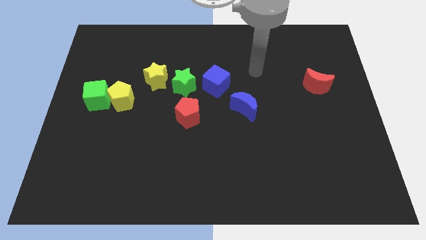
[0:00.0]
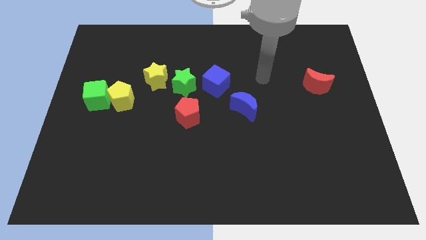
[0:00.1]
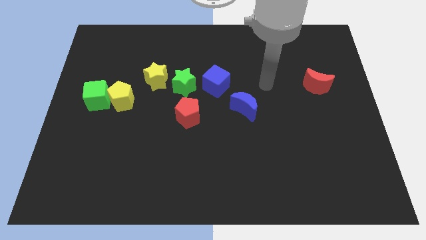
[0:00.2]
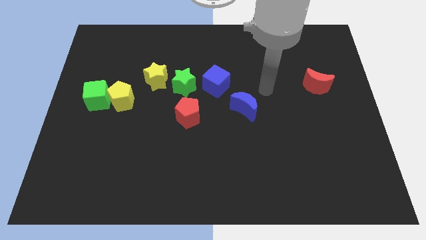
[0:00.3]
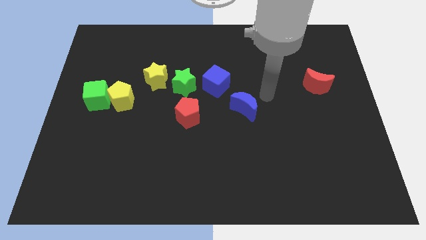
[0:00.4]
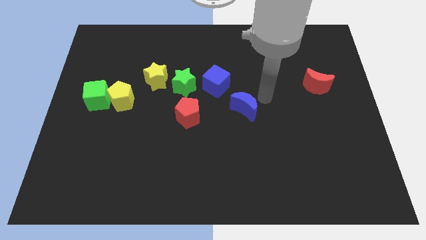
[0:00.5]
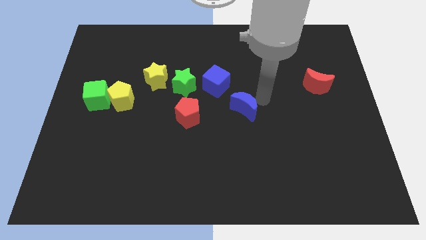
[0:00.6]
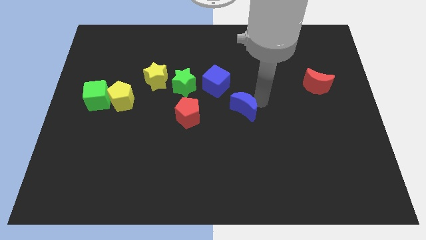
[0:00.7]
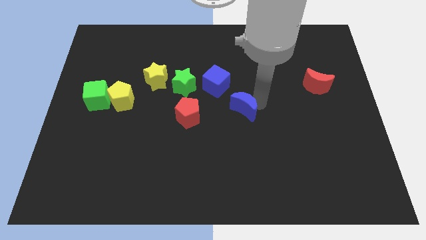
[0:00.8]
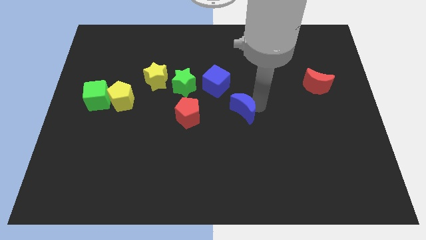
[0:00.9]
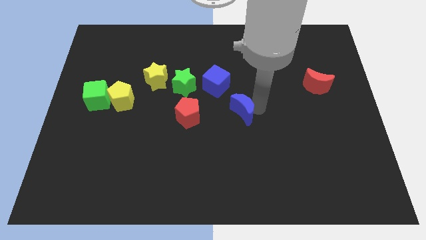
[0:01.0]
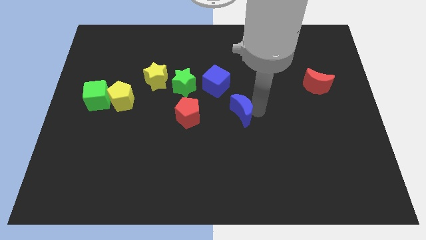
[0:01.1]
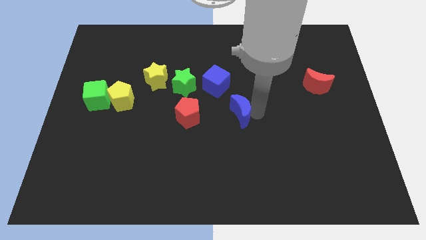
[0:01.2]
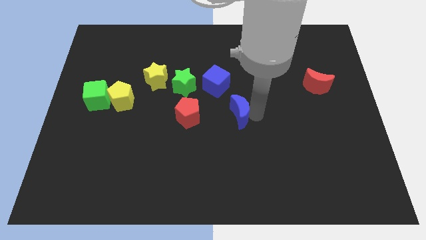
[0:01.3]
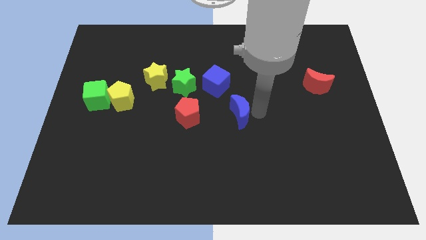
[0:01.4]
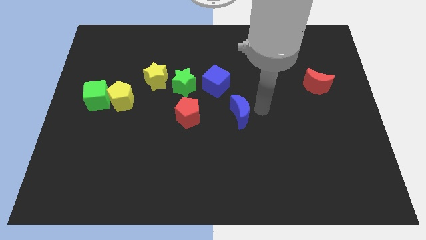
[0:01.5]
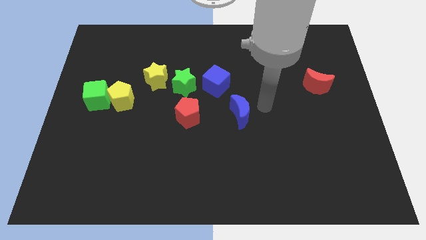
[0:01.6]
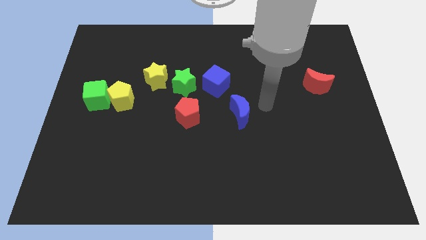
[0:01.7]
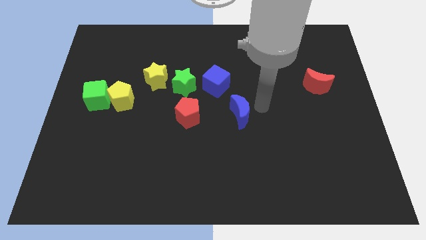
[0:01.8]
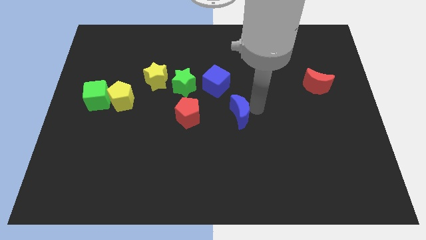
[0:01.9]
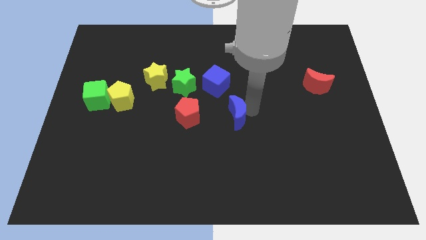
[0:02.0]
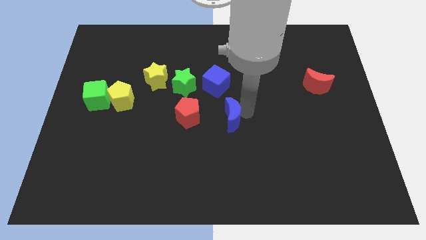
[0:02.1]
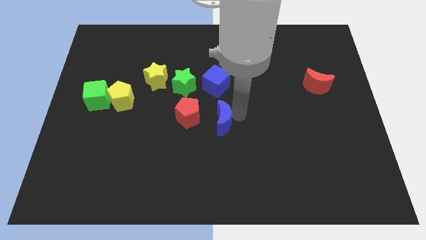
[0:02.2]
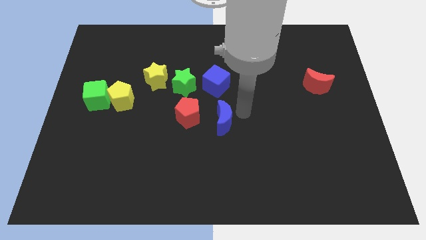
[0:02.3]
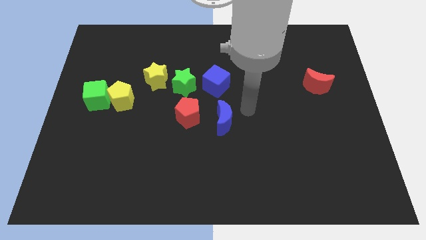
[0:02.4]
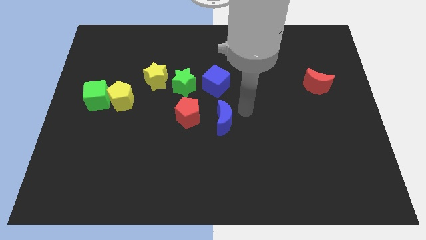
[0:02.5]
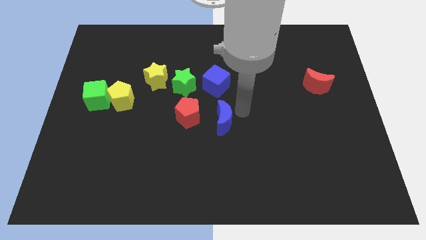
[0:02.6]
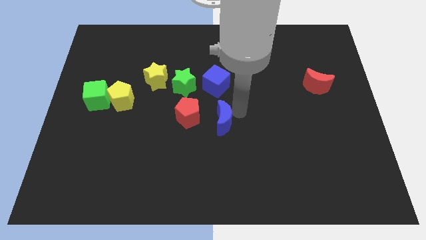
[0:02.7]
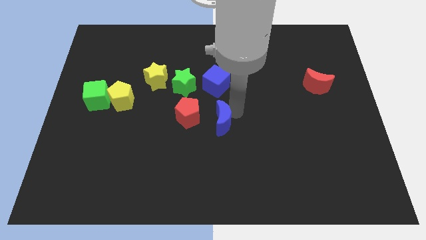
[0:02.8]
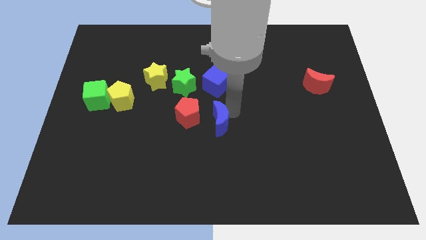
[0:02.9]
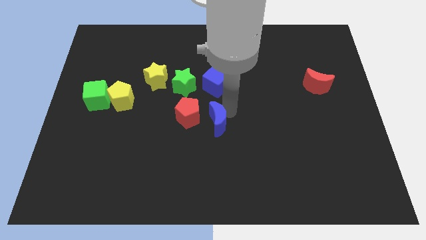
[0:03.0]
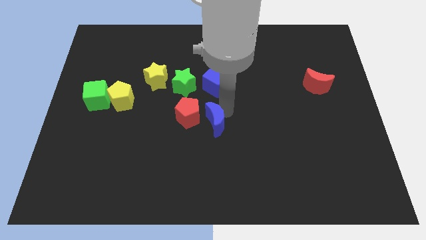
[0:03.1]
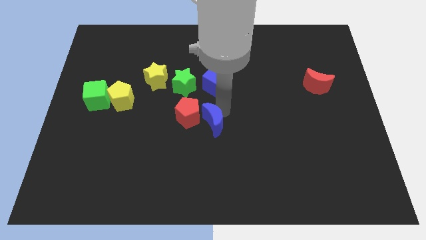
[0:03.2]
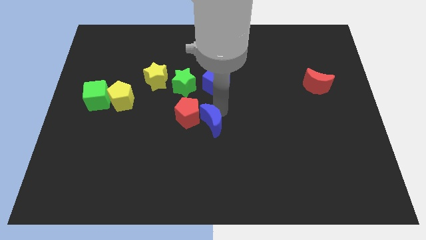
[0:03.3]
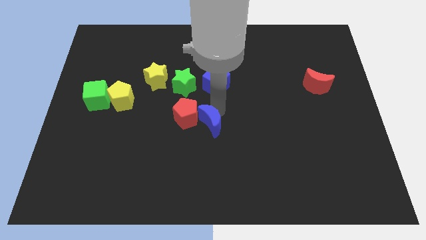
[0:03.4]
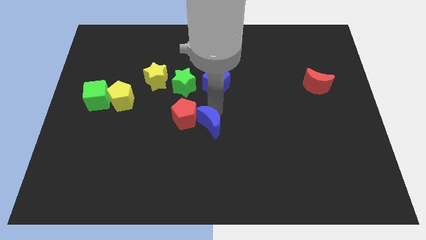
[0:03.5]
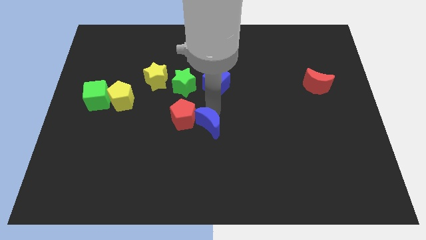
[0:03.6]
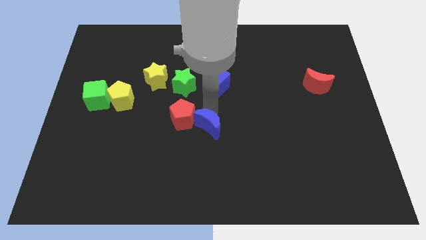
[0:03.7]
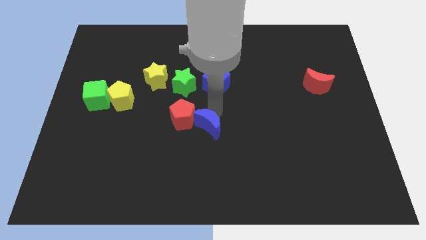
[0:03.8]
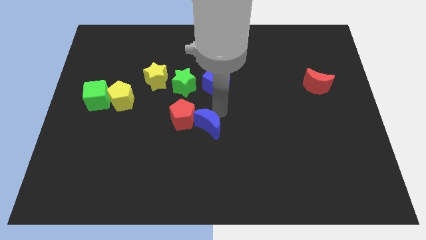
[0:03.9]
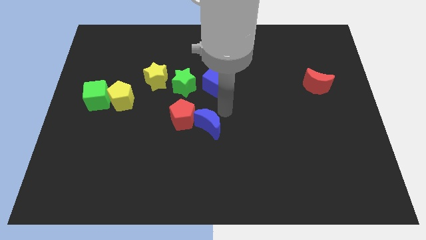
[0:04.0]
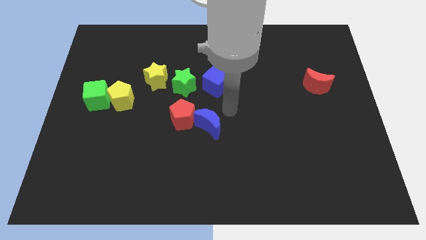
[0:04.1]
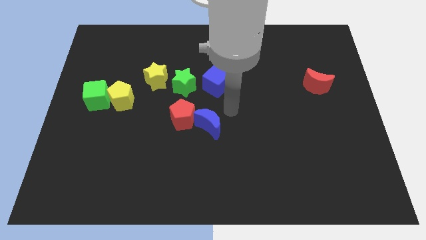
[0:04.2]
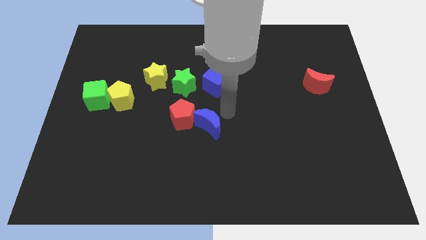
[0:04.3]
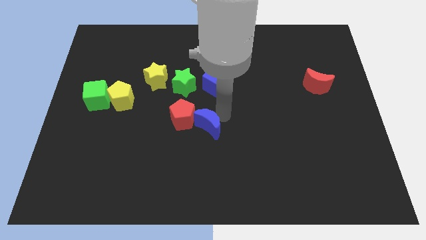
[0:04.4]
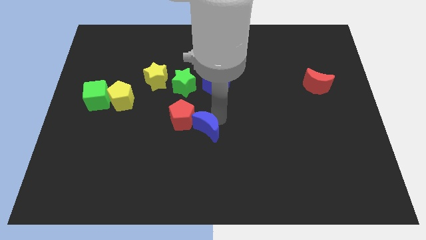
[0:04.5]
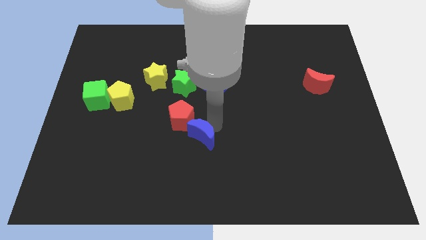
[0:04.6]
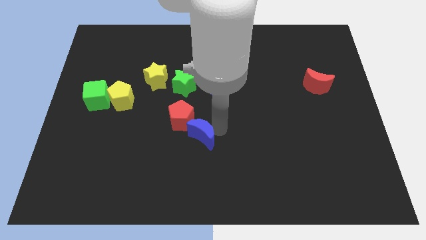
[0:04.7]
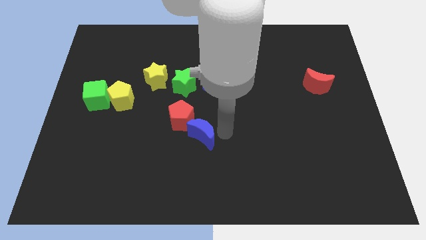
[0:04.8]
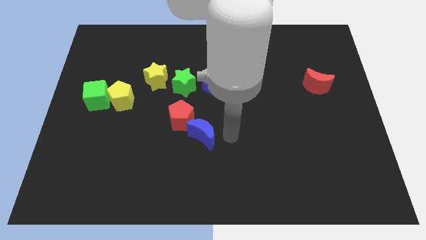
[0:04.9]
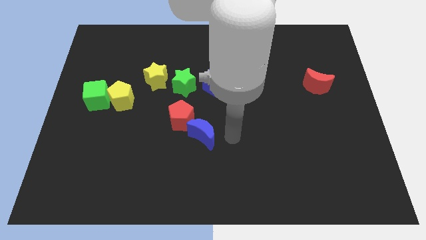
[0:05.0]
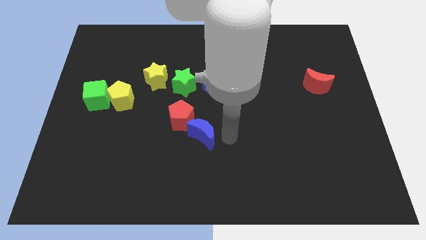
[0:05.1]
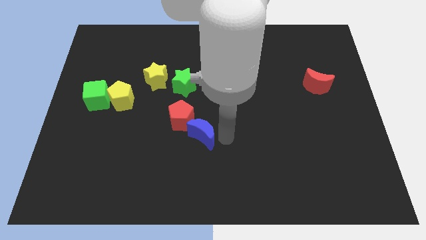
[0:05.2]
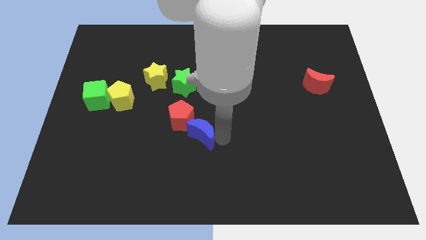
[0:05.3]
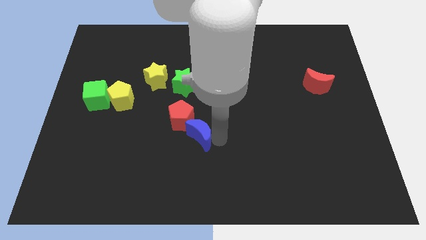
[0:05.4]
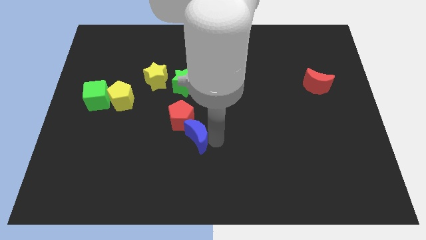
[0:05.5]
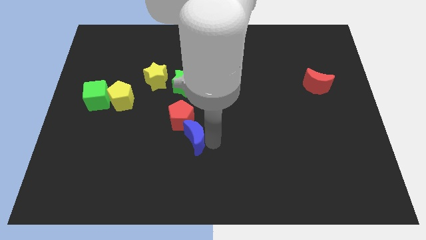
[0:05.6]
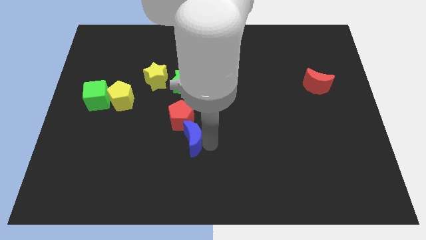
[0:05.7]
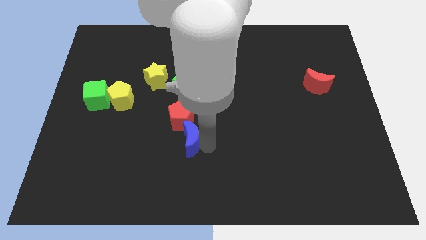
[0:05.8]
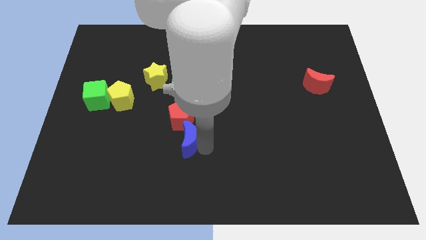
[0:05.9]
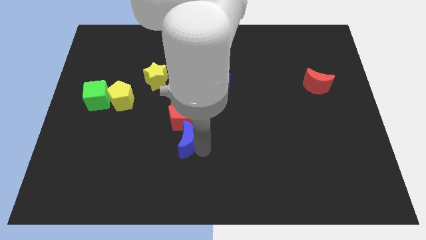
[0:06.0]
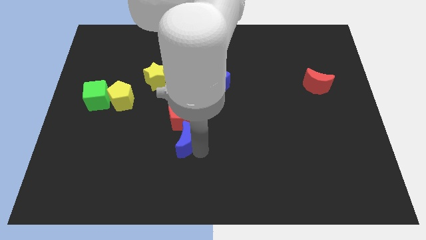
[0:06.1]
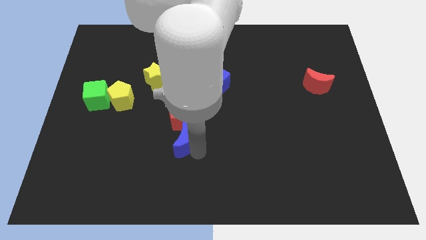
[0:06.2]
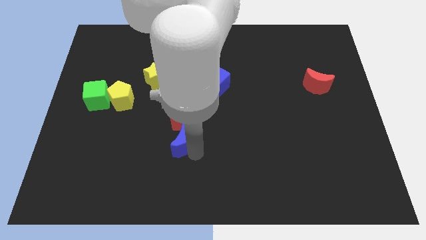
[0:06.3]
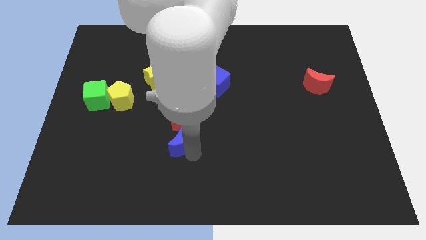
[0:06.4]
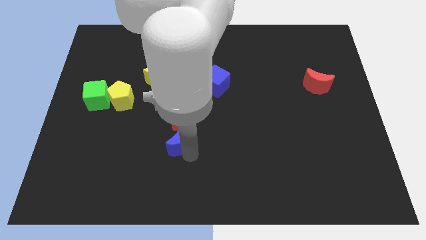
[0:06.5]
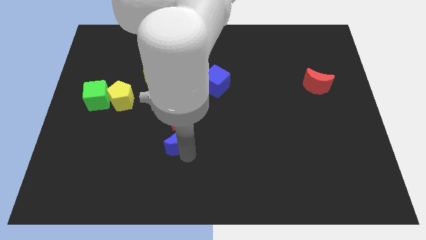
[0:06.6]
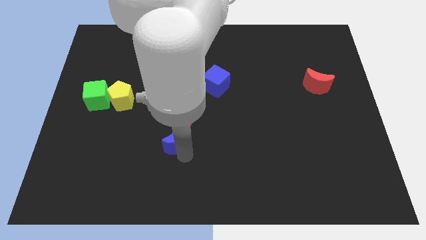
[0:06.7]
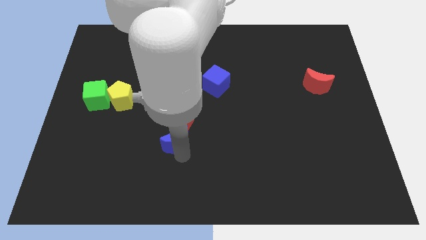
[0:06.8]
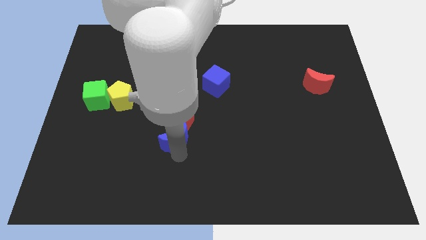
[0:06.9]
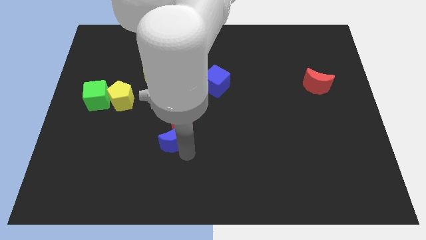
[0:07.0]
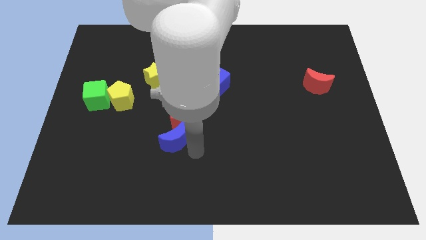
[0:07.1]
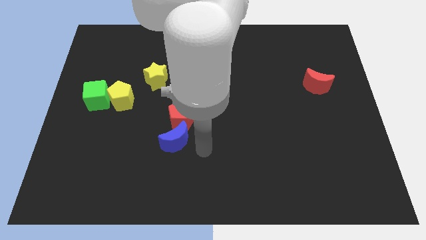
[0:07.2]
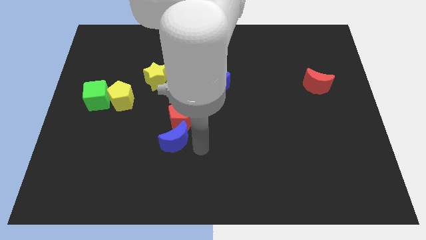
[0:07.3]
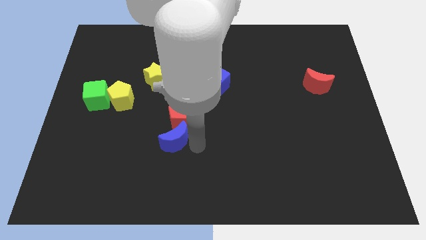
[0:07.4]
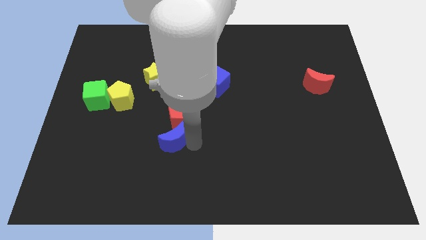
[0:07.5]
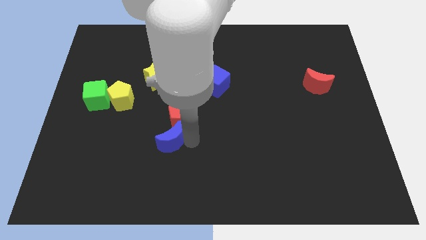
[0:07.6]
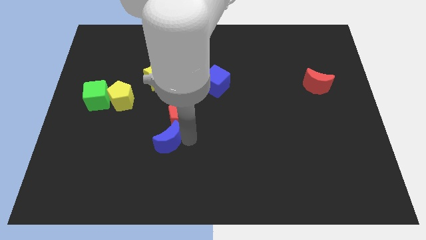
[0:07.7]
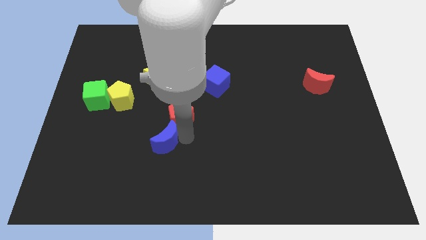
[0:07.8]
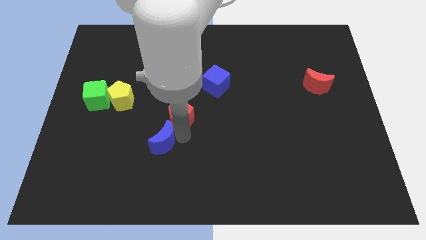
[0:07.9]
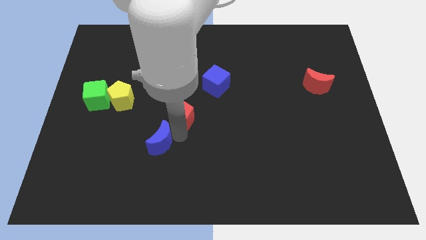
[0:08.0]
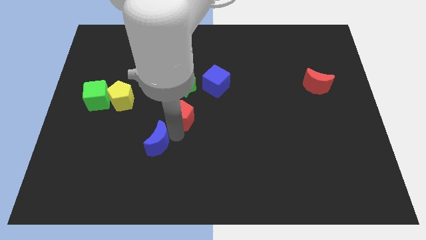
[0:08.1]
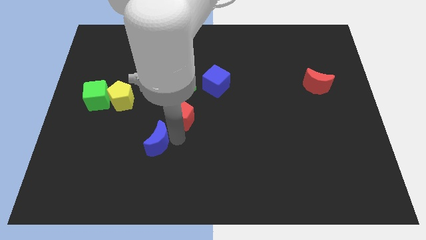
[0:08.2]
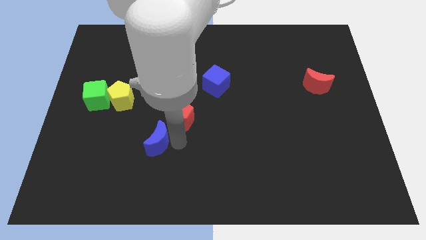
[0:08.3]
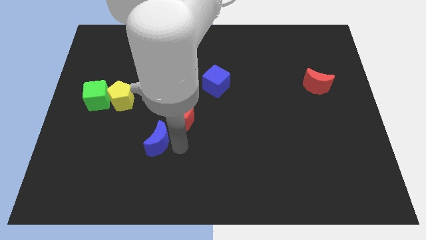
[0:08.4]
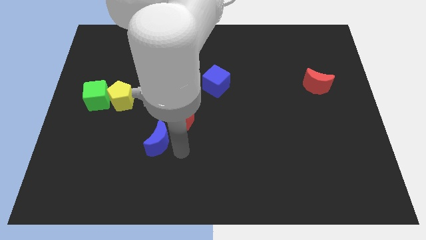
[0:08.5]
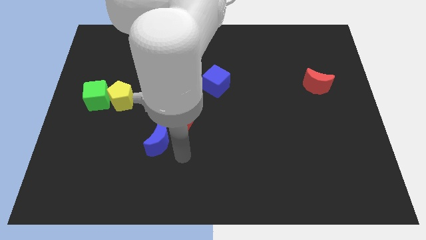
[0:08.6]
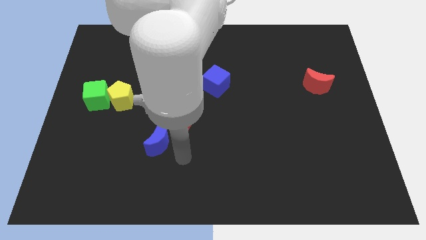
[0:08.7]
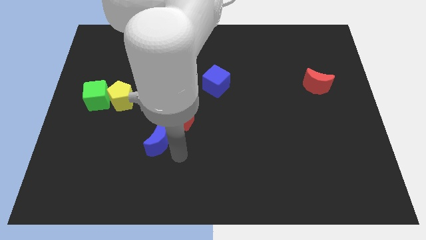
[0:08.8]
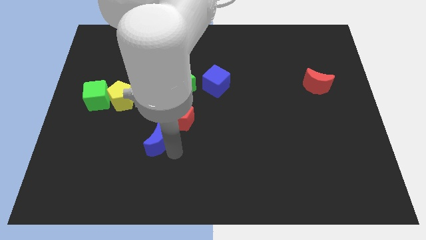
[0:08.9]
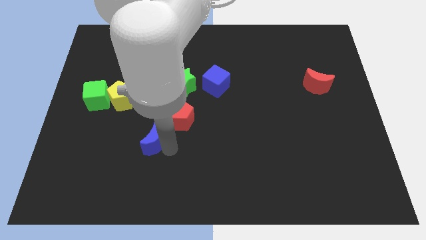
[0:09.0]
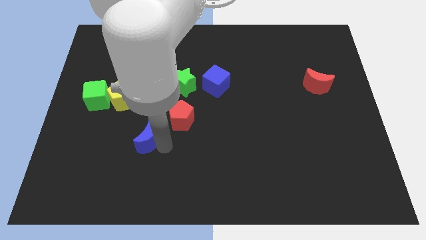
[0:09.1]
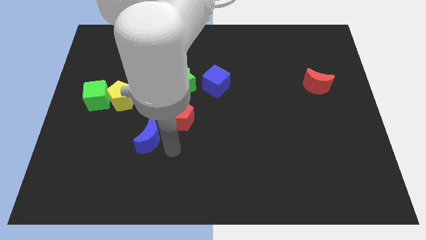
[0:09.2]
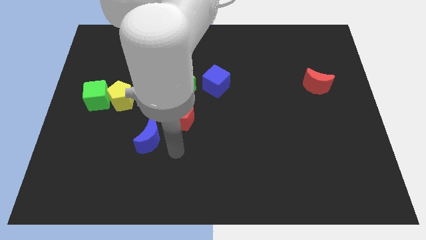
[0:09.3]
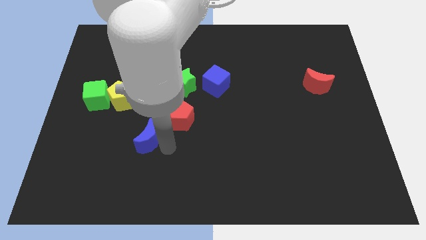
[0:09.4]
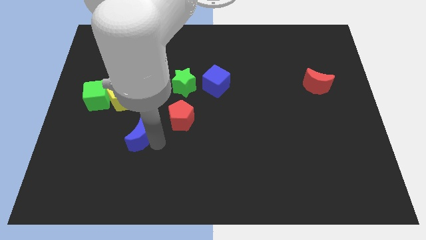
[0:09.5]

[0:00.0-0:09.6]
slide the blue moon left
